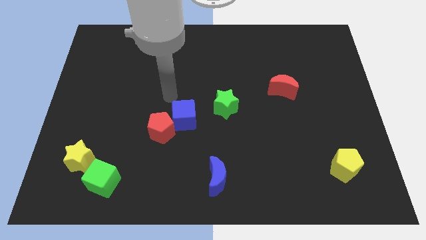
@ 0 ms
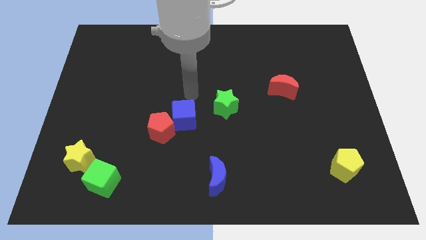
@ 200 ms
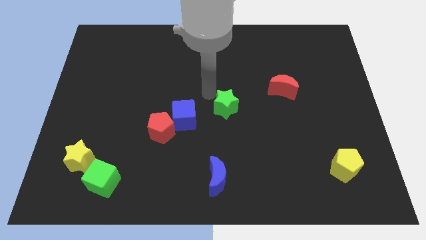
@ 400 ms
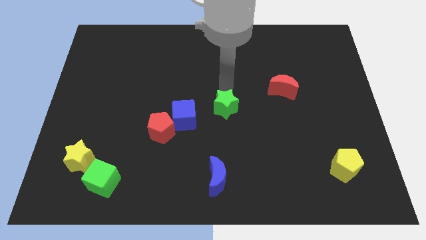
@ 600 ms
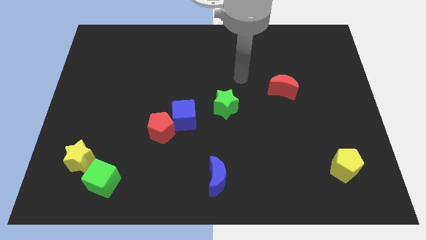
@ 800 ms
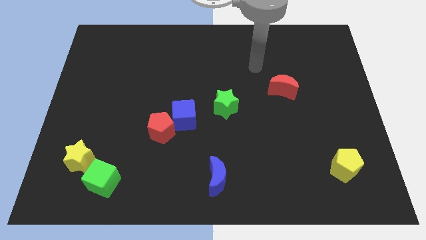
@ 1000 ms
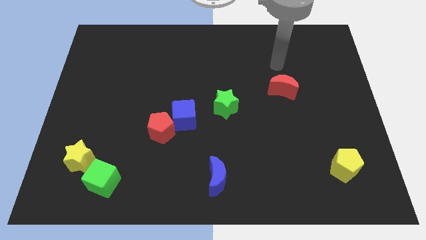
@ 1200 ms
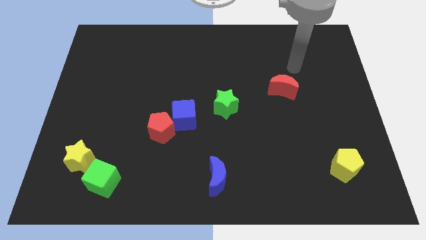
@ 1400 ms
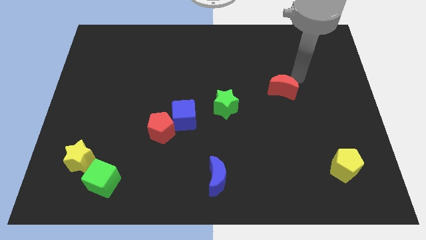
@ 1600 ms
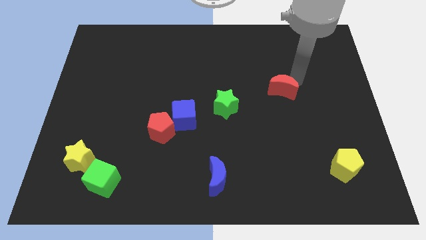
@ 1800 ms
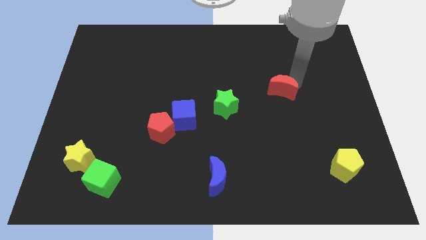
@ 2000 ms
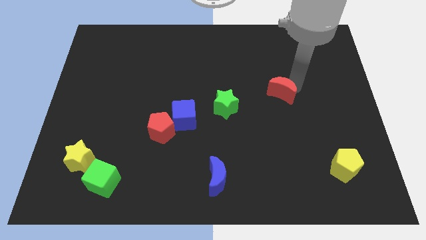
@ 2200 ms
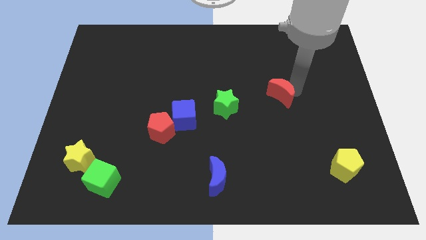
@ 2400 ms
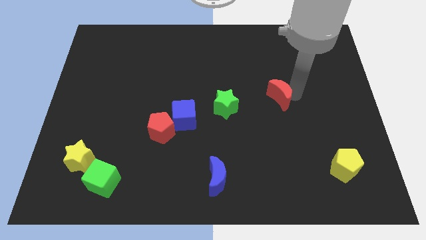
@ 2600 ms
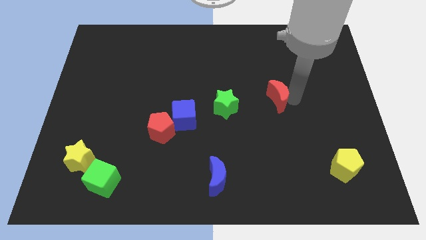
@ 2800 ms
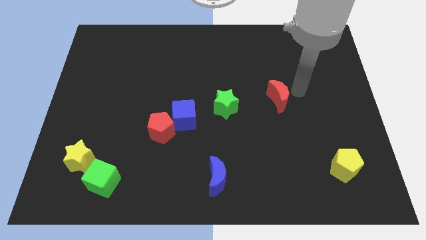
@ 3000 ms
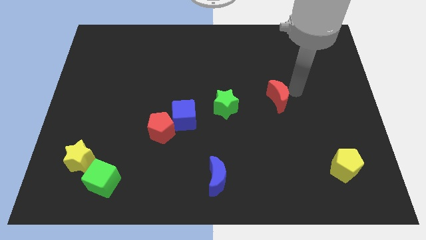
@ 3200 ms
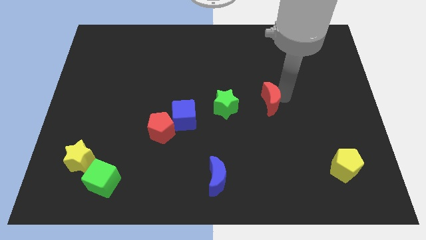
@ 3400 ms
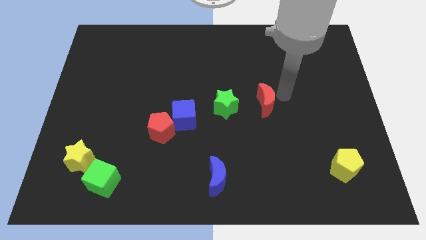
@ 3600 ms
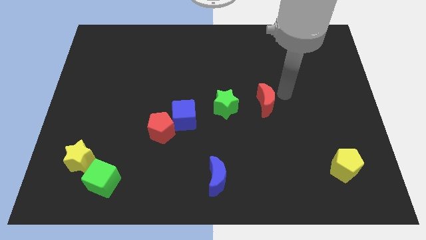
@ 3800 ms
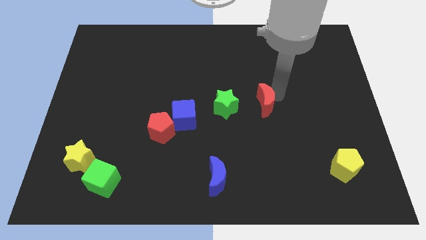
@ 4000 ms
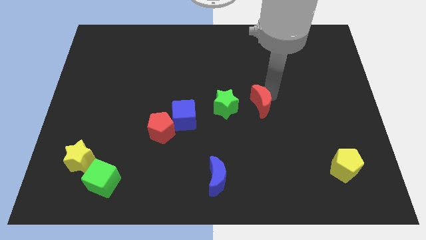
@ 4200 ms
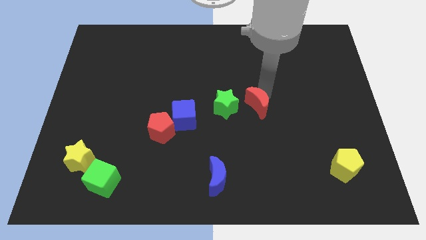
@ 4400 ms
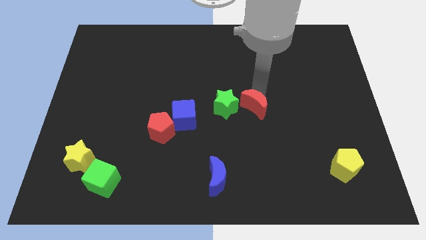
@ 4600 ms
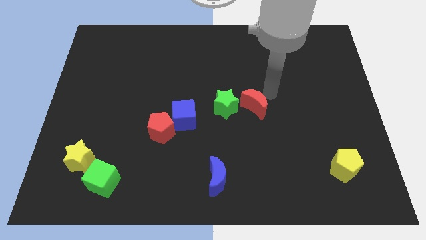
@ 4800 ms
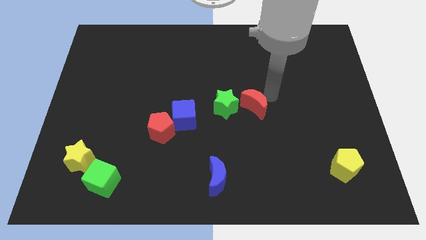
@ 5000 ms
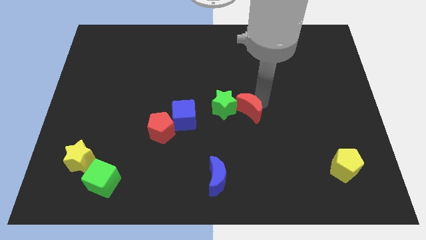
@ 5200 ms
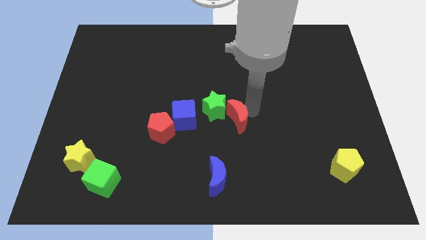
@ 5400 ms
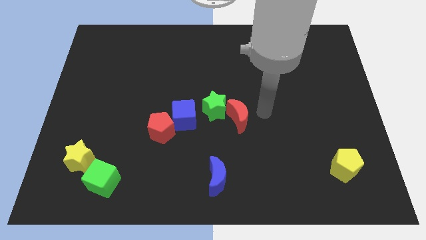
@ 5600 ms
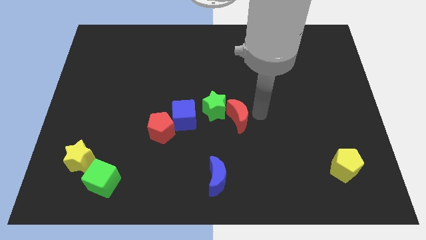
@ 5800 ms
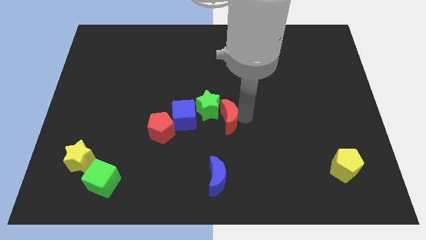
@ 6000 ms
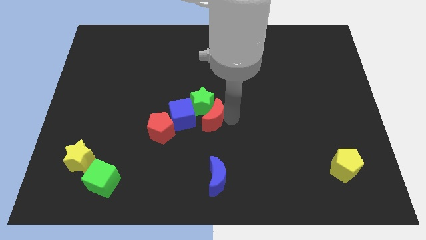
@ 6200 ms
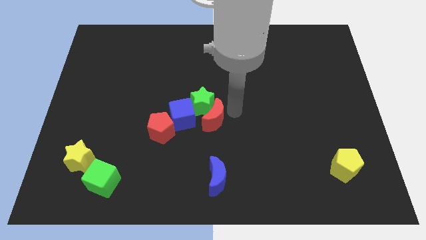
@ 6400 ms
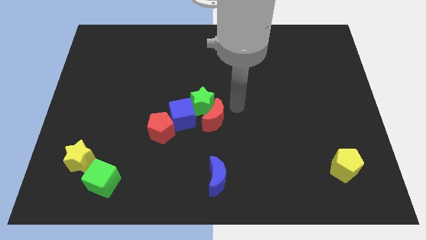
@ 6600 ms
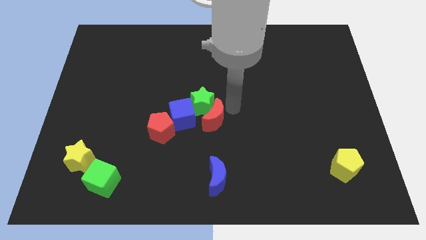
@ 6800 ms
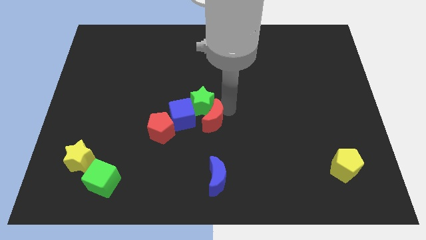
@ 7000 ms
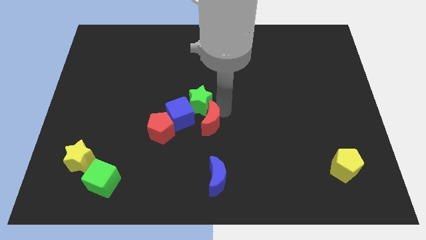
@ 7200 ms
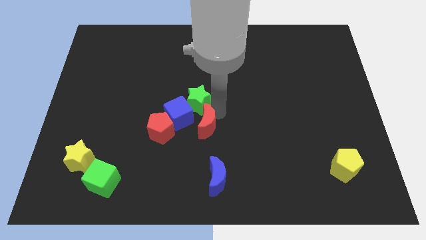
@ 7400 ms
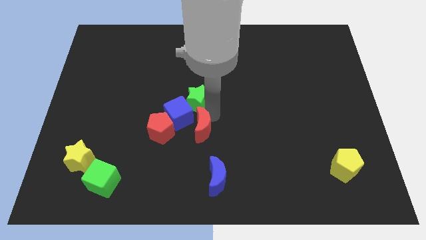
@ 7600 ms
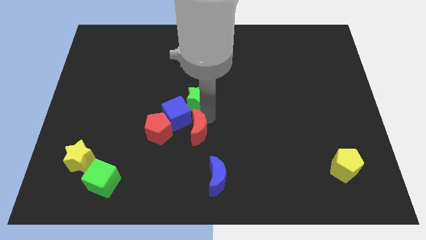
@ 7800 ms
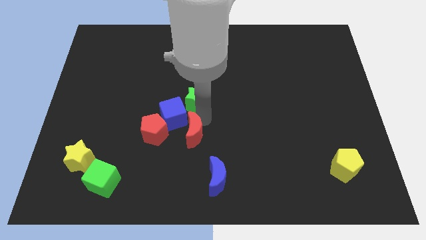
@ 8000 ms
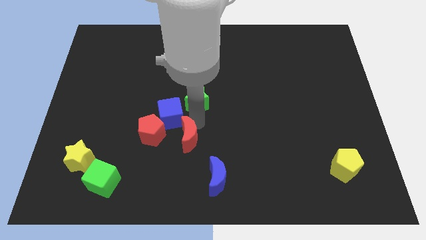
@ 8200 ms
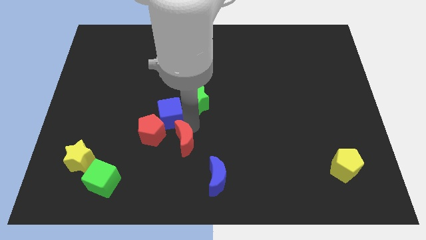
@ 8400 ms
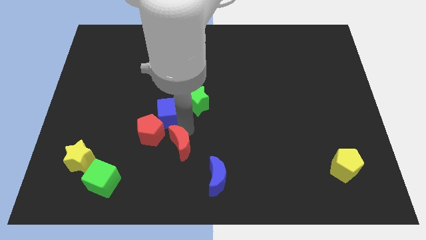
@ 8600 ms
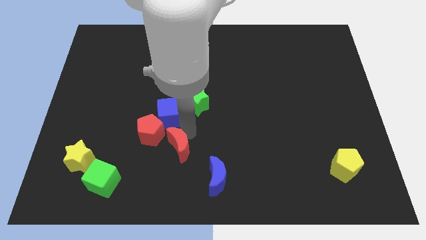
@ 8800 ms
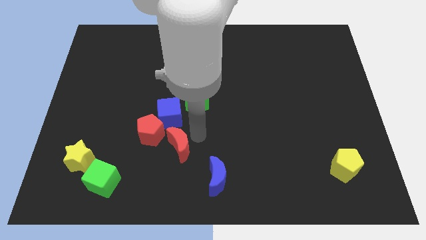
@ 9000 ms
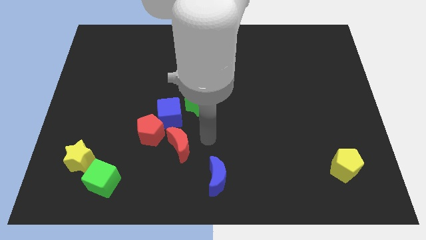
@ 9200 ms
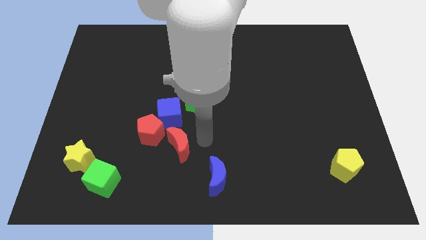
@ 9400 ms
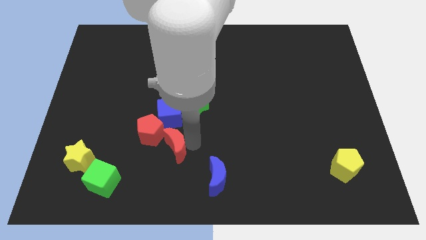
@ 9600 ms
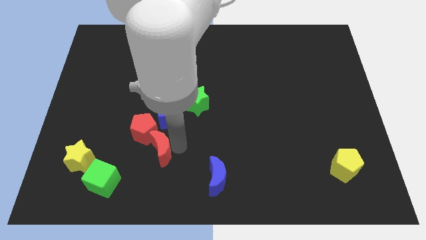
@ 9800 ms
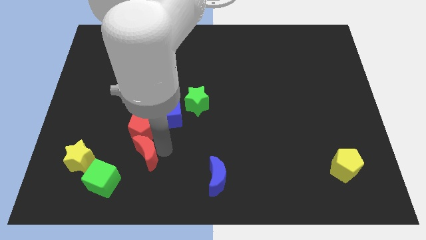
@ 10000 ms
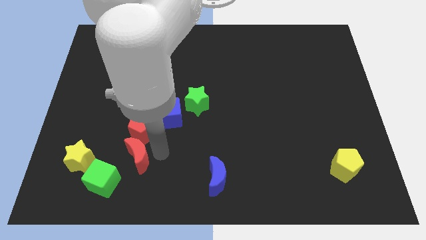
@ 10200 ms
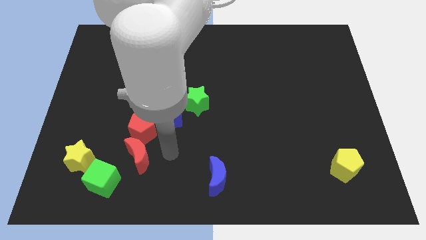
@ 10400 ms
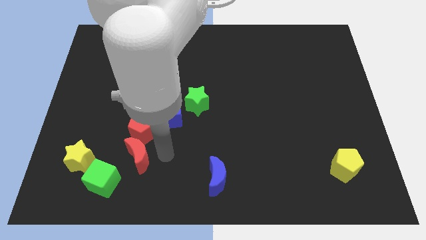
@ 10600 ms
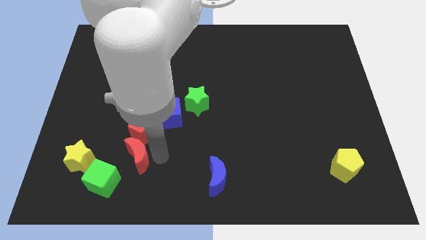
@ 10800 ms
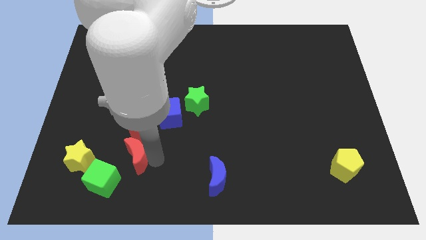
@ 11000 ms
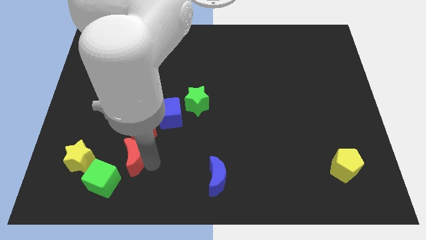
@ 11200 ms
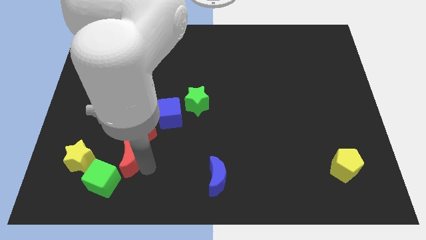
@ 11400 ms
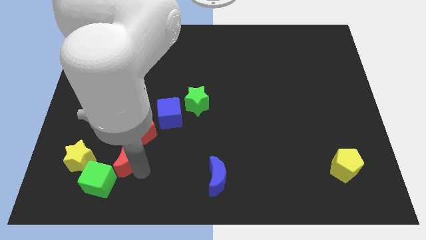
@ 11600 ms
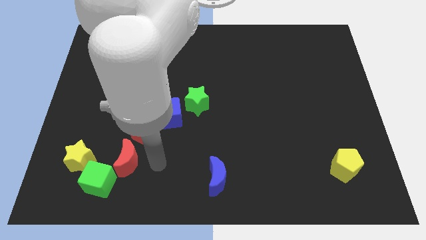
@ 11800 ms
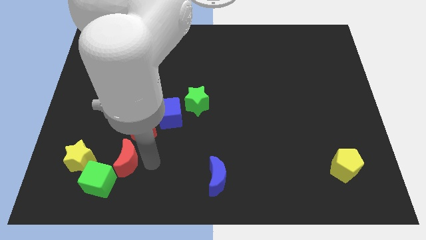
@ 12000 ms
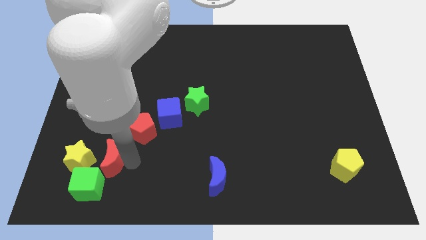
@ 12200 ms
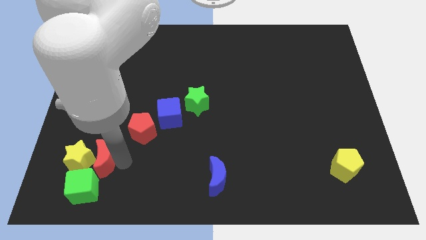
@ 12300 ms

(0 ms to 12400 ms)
put the red moon next to the yellow star

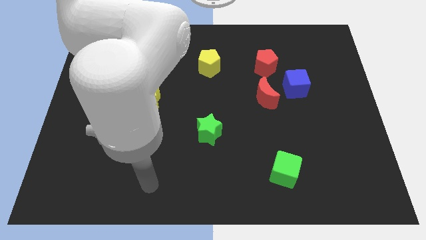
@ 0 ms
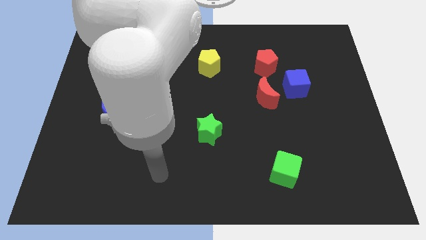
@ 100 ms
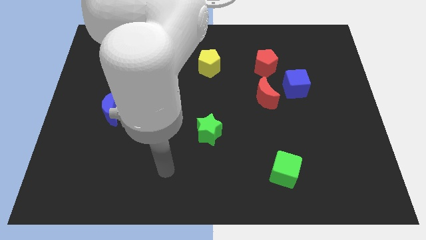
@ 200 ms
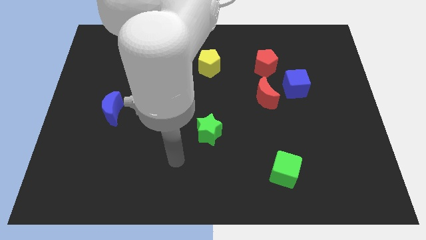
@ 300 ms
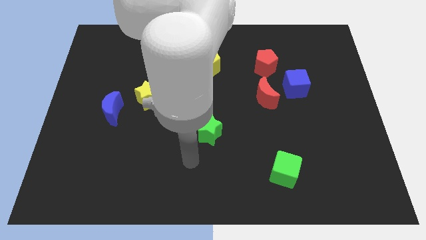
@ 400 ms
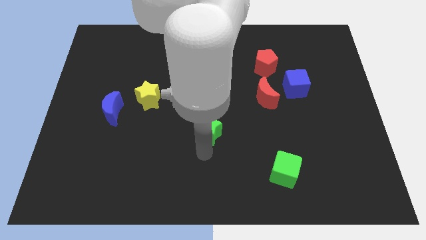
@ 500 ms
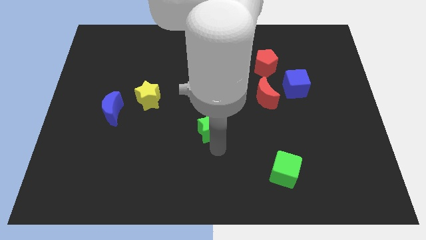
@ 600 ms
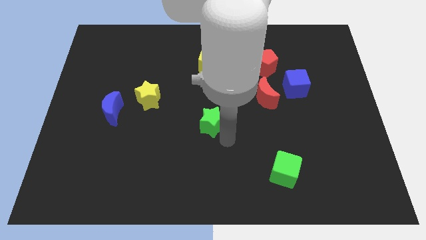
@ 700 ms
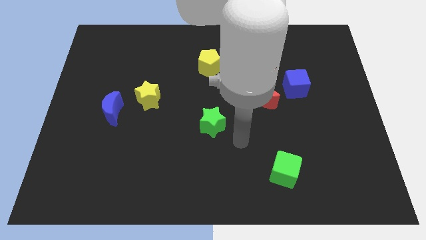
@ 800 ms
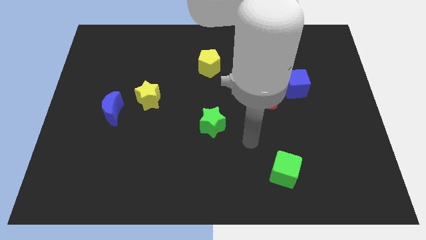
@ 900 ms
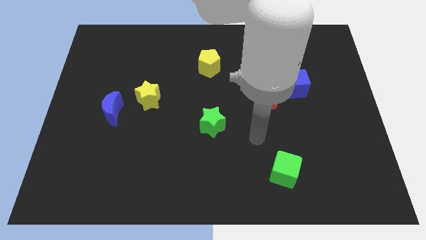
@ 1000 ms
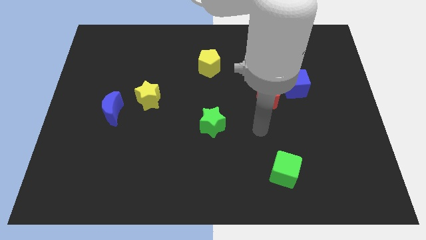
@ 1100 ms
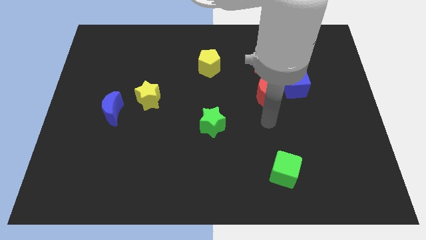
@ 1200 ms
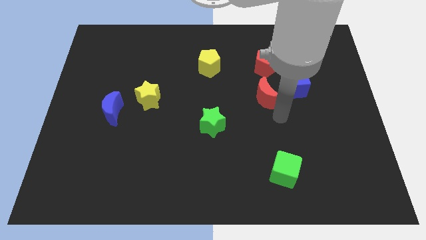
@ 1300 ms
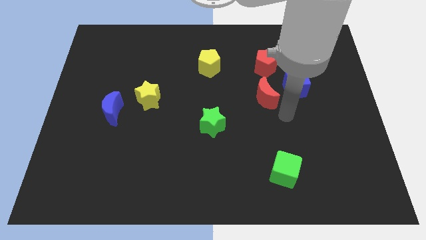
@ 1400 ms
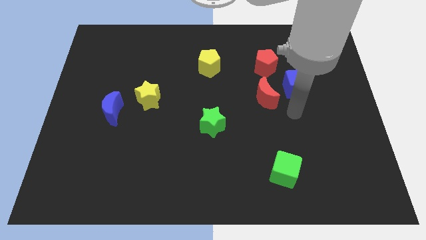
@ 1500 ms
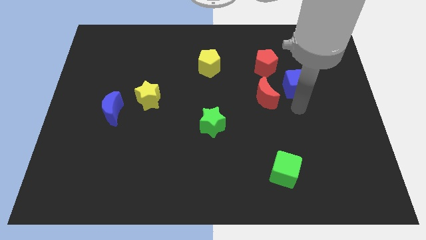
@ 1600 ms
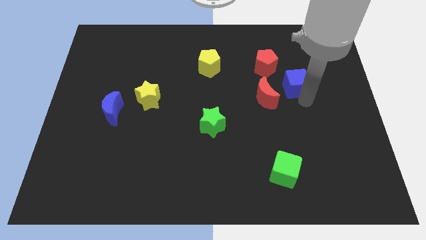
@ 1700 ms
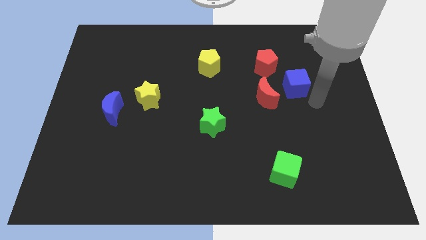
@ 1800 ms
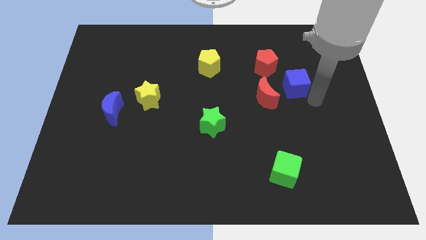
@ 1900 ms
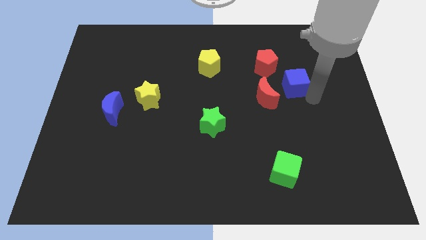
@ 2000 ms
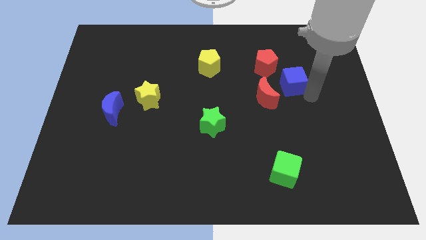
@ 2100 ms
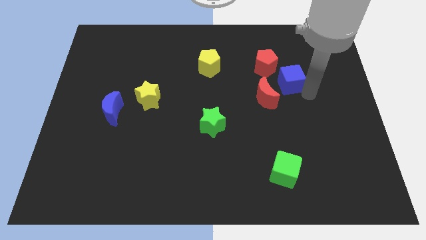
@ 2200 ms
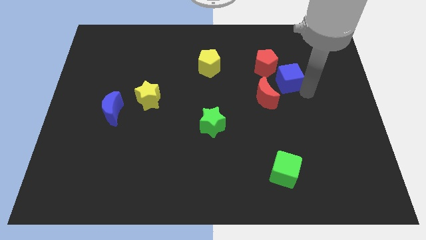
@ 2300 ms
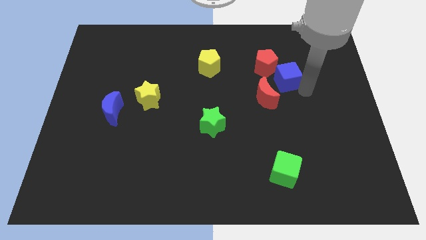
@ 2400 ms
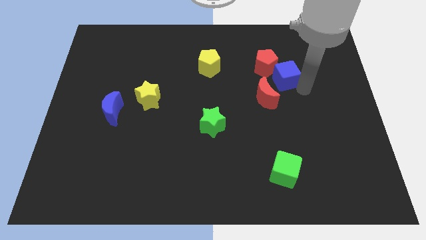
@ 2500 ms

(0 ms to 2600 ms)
put the blue cube close to the red pentagon
